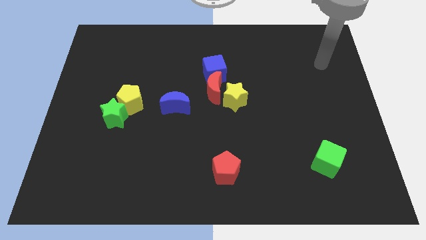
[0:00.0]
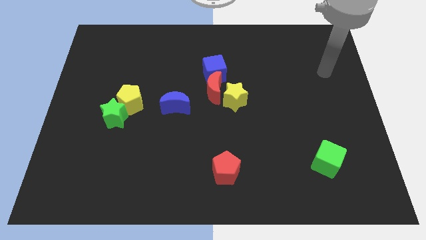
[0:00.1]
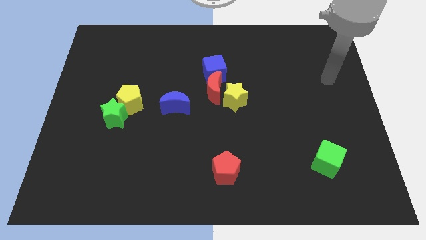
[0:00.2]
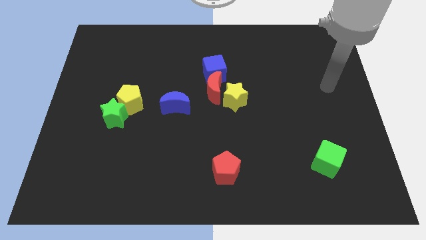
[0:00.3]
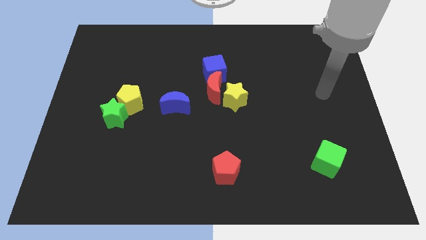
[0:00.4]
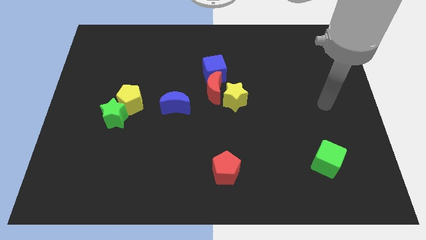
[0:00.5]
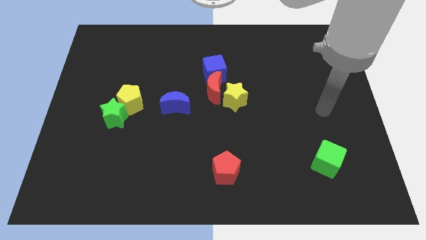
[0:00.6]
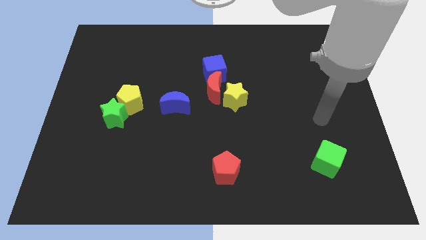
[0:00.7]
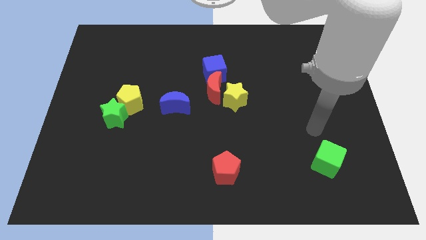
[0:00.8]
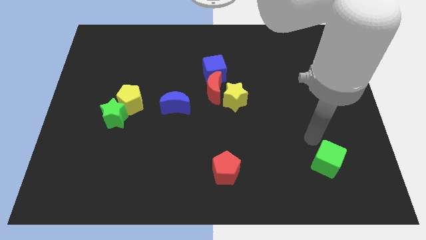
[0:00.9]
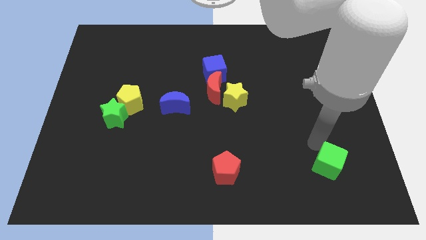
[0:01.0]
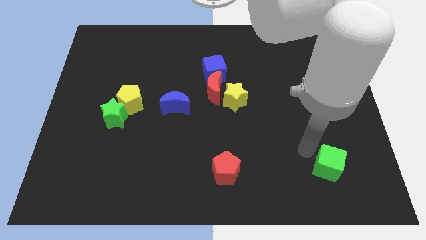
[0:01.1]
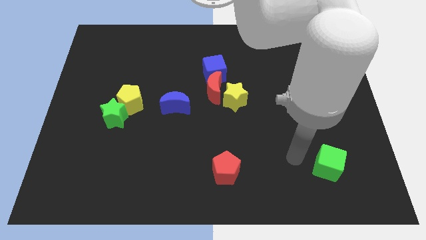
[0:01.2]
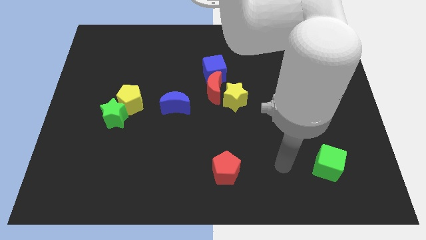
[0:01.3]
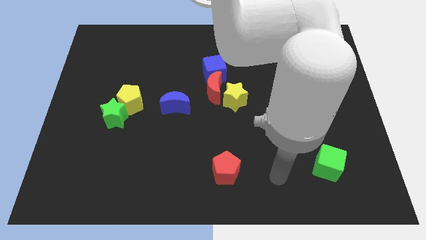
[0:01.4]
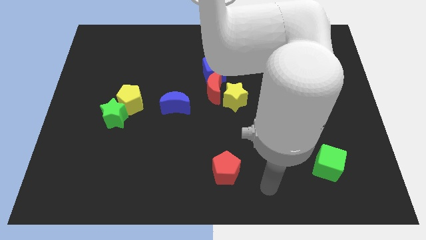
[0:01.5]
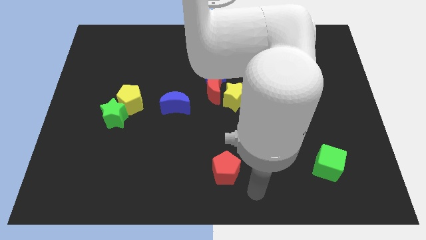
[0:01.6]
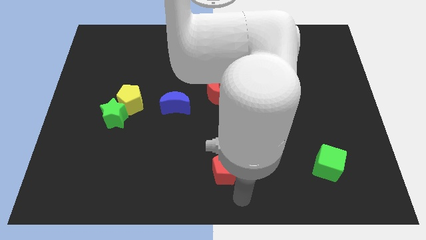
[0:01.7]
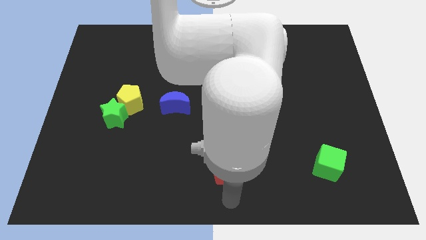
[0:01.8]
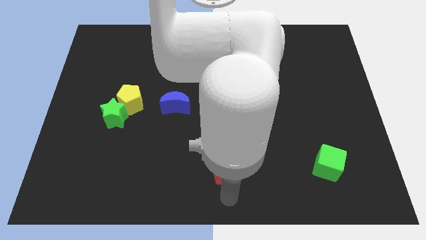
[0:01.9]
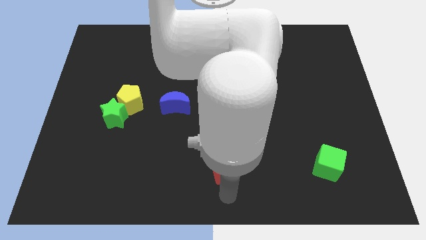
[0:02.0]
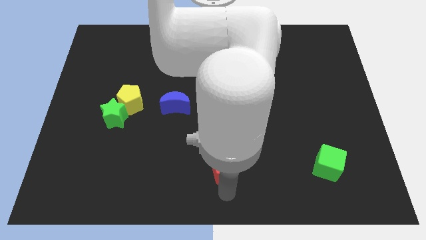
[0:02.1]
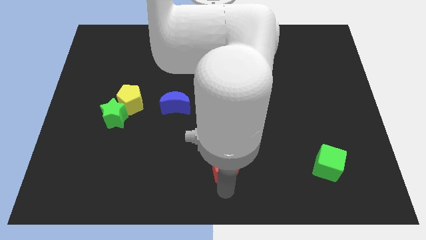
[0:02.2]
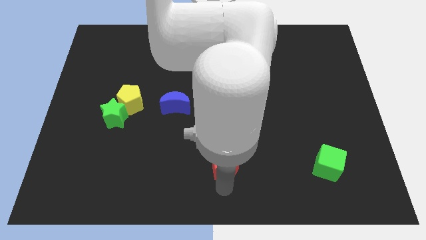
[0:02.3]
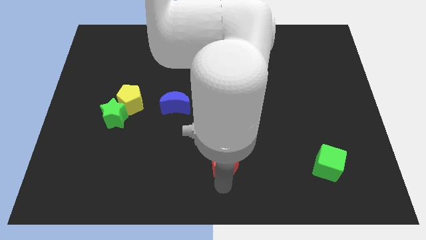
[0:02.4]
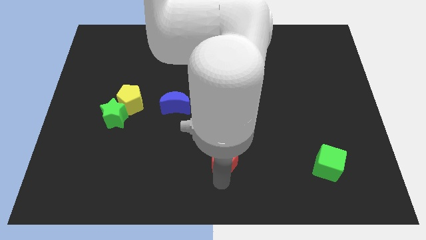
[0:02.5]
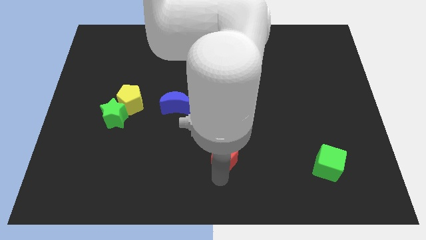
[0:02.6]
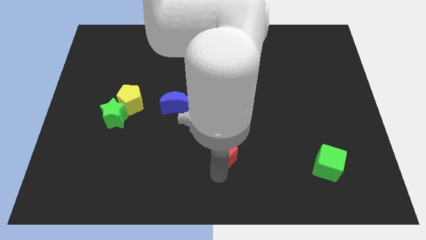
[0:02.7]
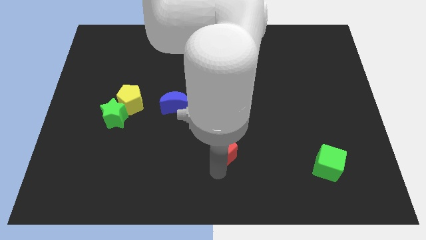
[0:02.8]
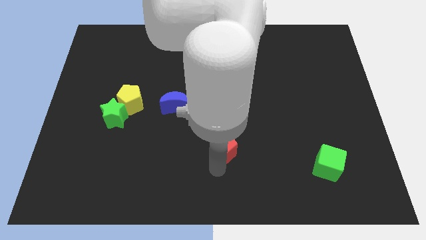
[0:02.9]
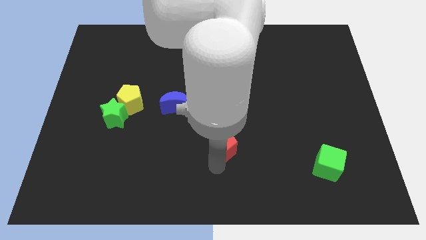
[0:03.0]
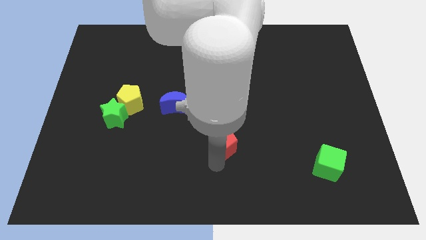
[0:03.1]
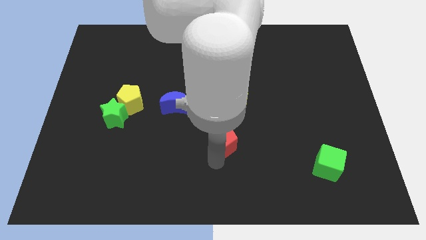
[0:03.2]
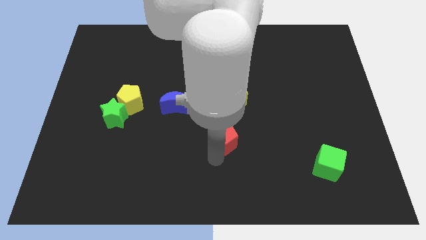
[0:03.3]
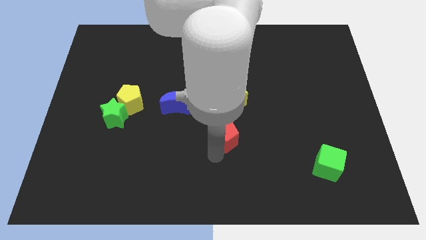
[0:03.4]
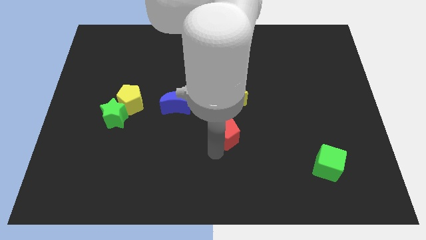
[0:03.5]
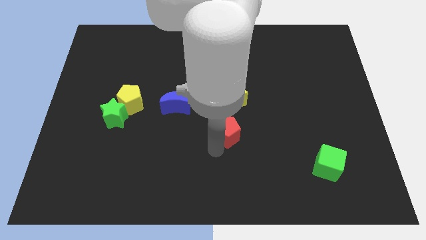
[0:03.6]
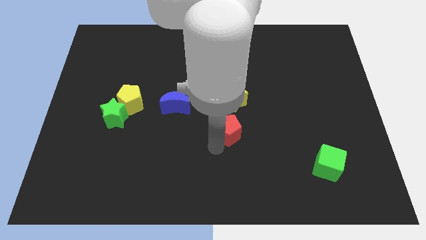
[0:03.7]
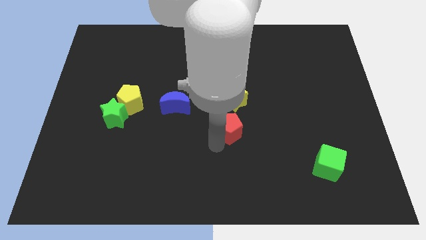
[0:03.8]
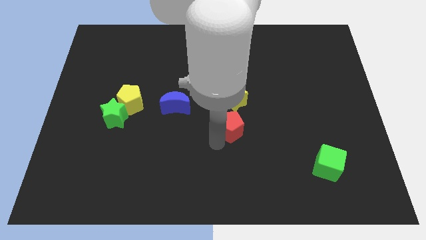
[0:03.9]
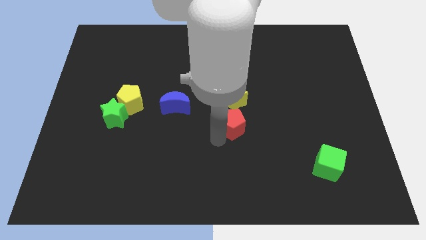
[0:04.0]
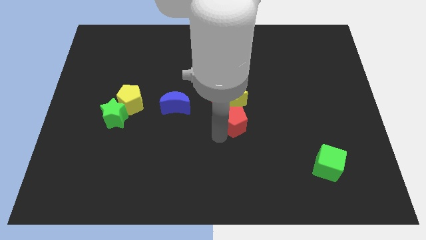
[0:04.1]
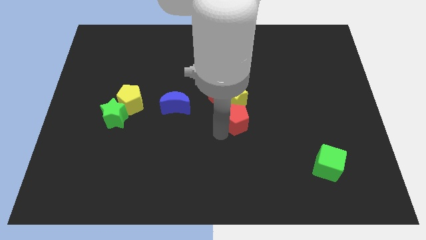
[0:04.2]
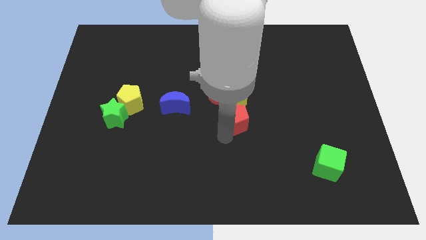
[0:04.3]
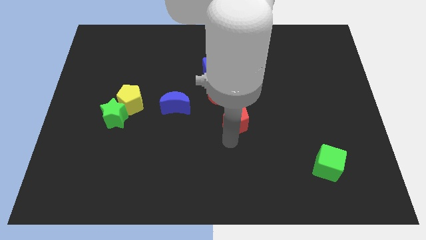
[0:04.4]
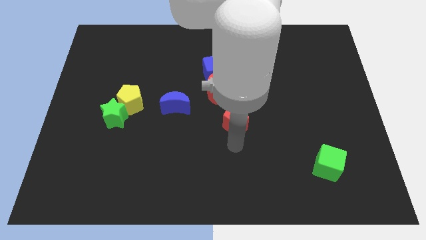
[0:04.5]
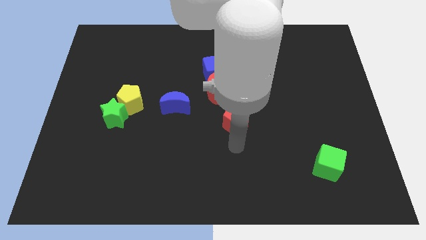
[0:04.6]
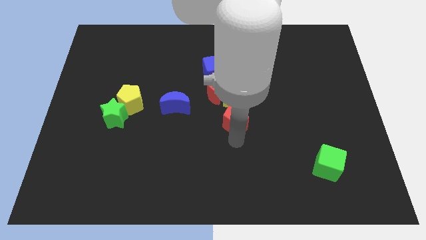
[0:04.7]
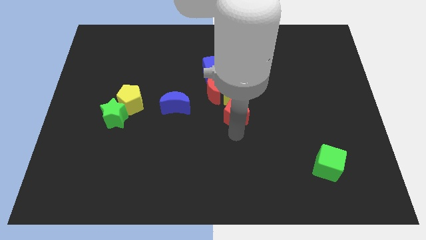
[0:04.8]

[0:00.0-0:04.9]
move the red pentagon towards the yellow star

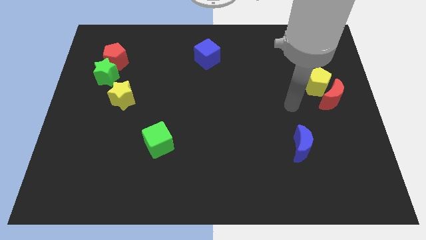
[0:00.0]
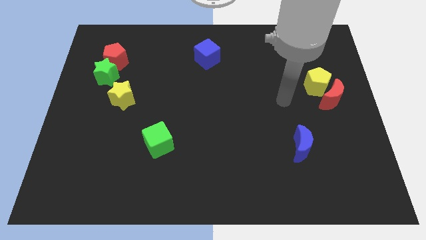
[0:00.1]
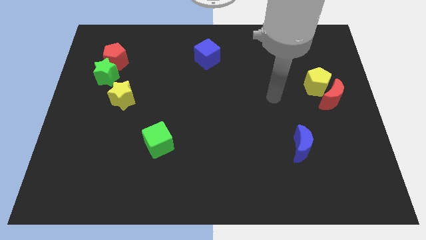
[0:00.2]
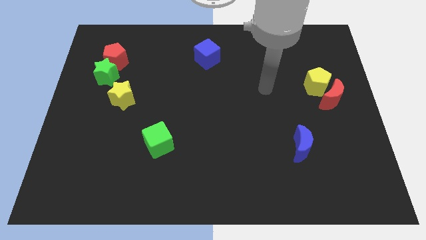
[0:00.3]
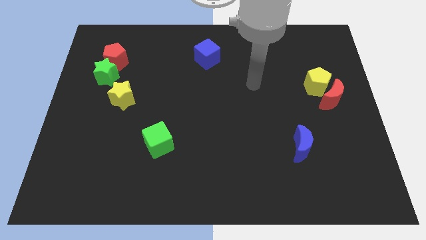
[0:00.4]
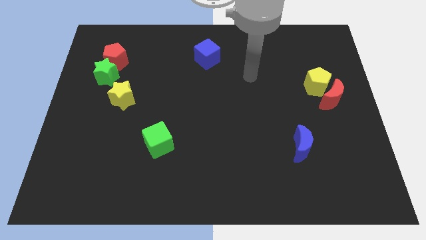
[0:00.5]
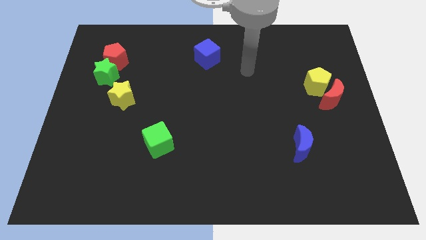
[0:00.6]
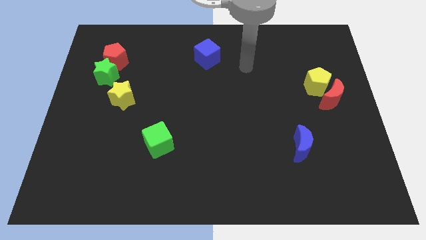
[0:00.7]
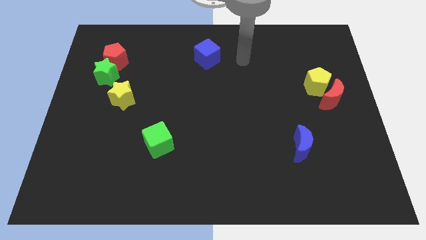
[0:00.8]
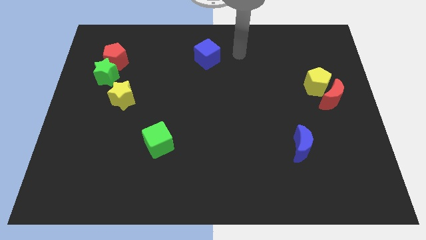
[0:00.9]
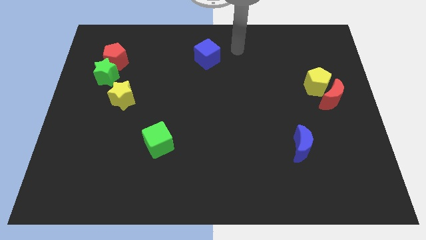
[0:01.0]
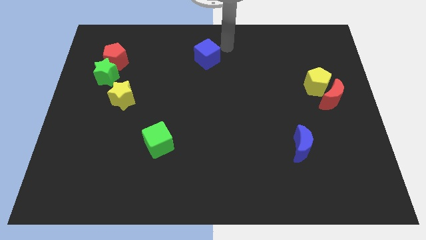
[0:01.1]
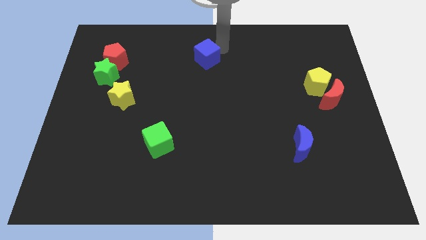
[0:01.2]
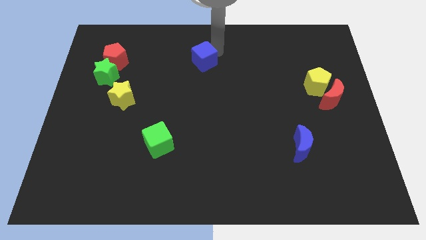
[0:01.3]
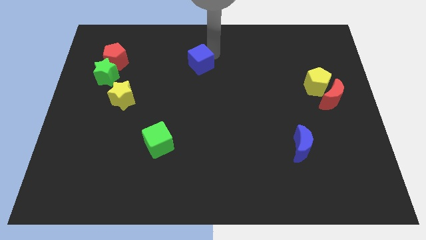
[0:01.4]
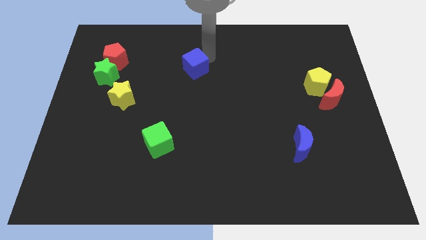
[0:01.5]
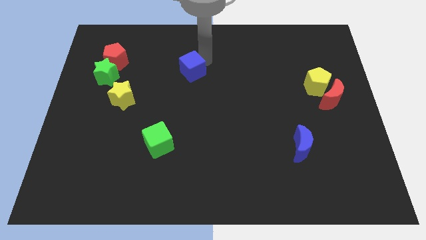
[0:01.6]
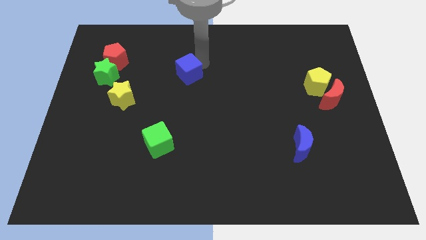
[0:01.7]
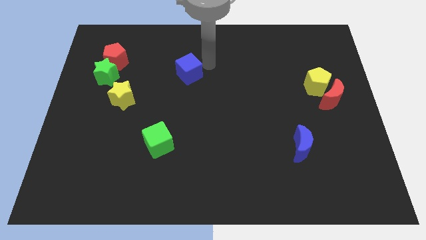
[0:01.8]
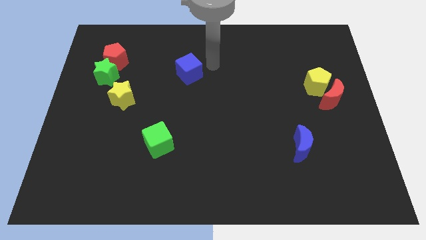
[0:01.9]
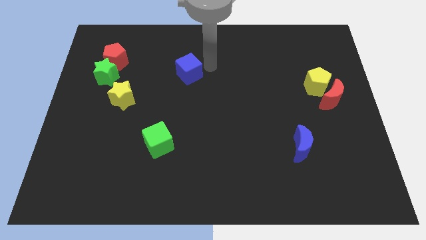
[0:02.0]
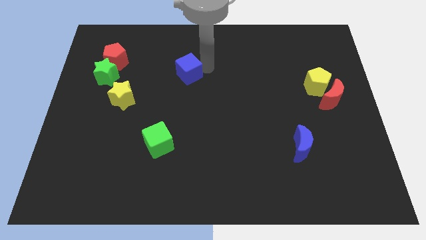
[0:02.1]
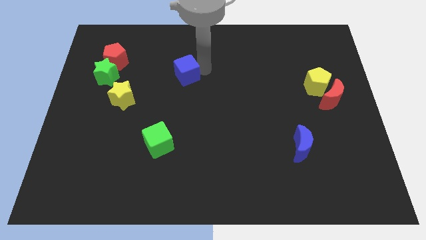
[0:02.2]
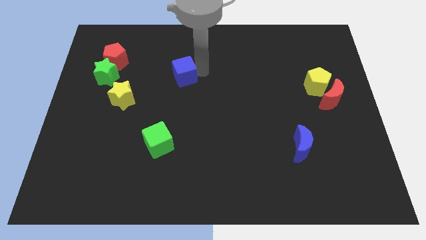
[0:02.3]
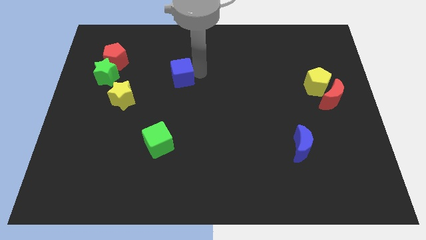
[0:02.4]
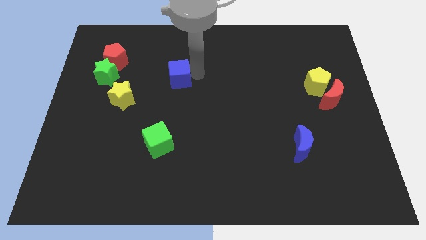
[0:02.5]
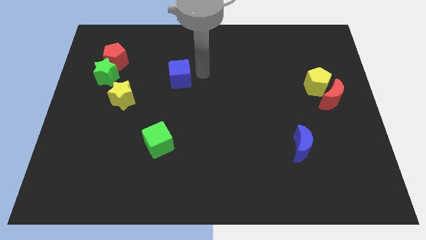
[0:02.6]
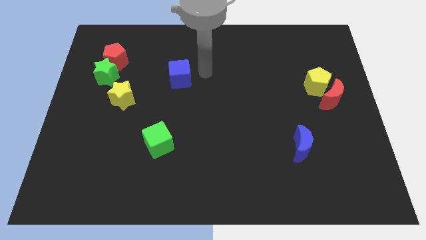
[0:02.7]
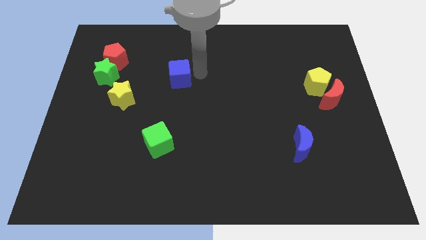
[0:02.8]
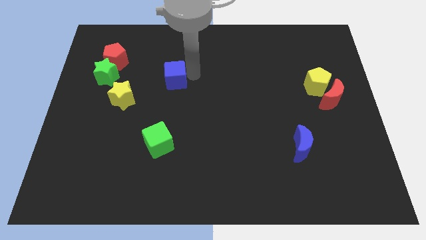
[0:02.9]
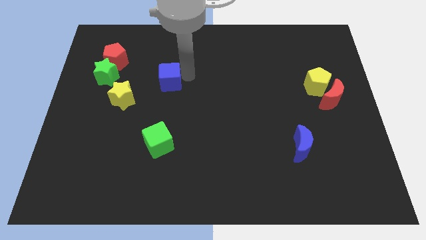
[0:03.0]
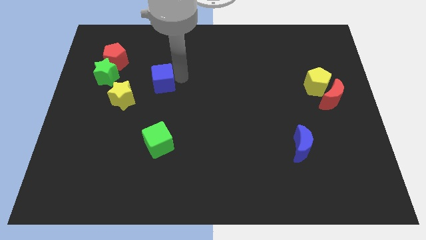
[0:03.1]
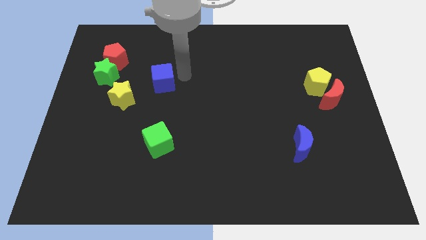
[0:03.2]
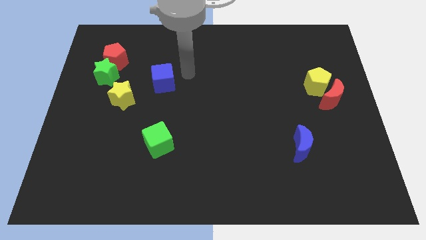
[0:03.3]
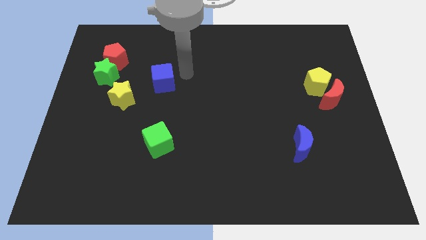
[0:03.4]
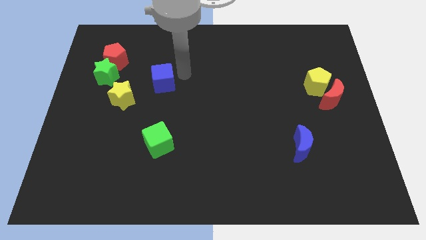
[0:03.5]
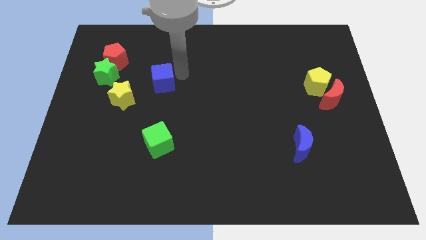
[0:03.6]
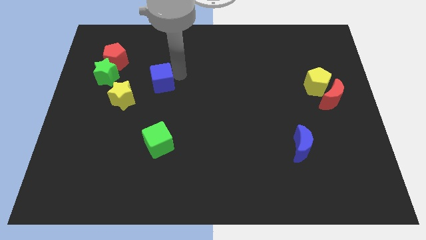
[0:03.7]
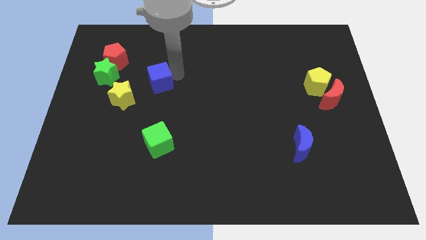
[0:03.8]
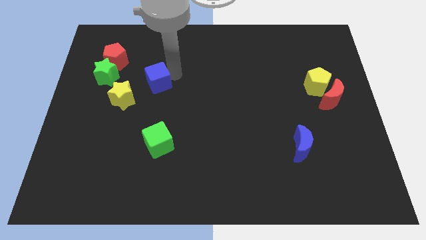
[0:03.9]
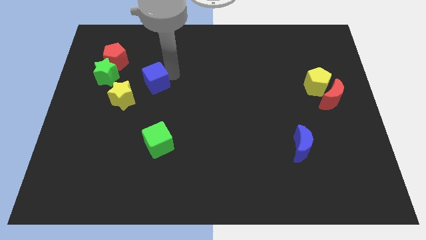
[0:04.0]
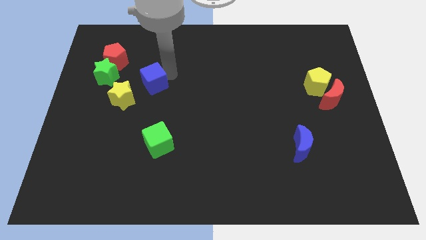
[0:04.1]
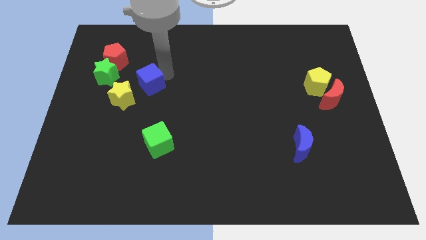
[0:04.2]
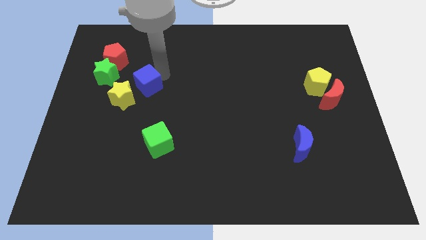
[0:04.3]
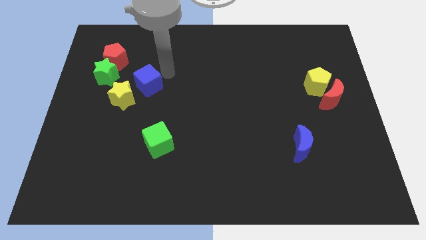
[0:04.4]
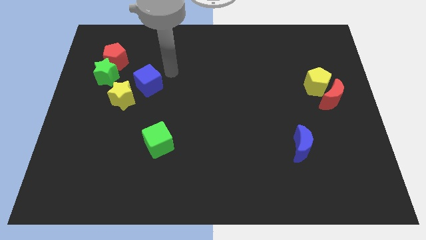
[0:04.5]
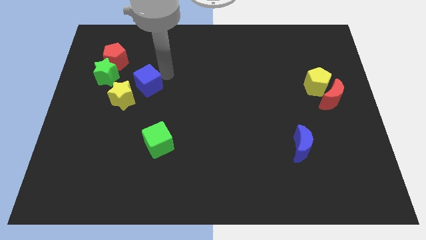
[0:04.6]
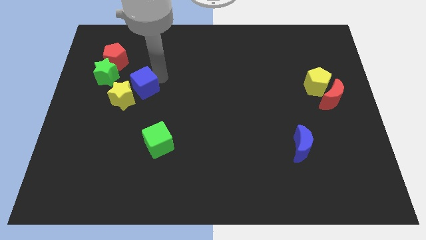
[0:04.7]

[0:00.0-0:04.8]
put the blue cube next to the yellow star
